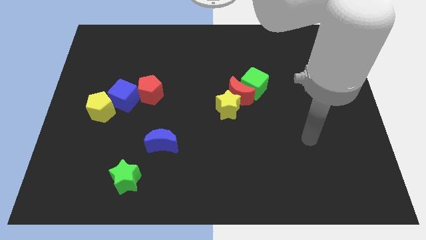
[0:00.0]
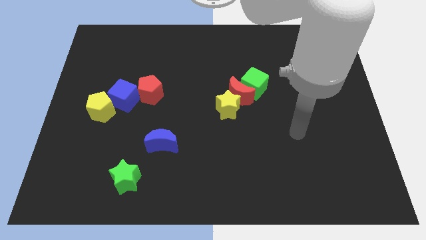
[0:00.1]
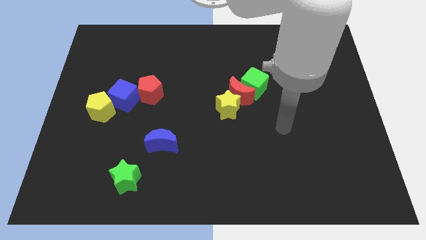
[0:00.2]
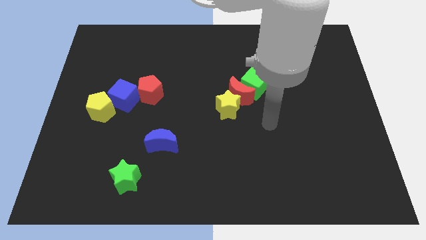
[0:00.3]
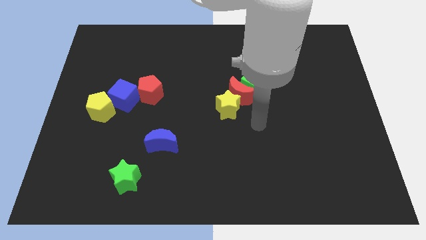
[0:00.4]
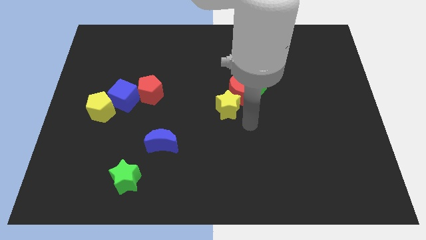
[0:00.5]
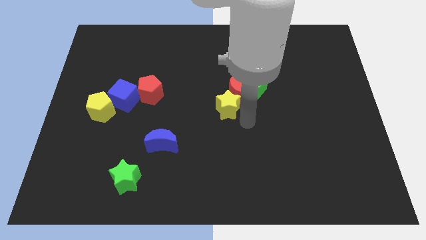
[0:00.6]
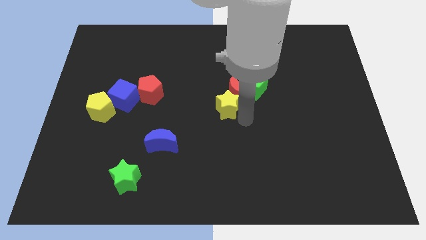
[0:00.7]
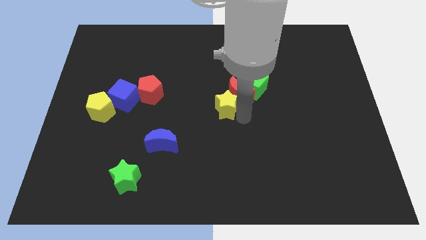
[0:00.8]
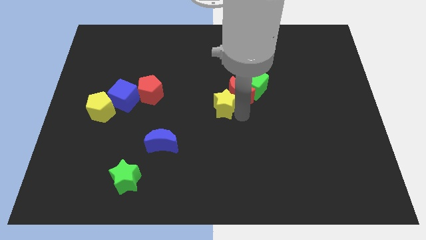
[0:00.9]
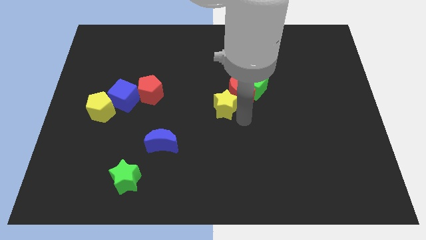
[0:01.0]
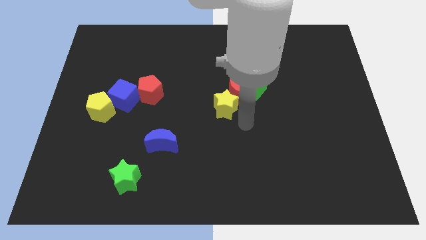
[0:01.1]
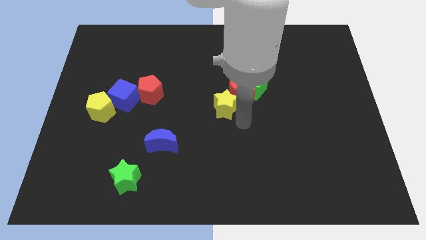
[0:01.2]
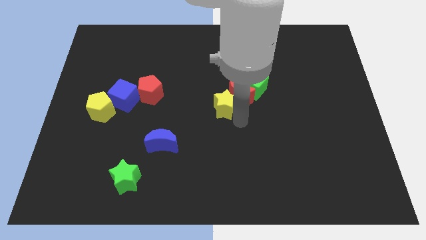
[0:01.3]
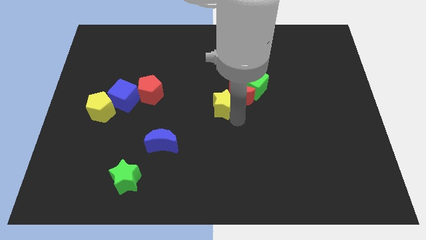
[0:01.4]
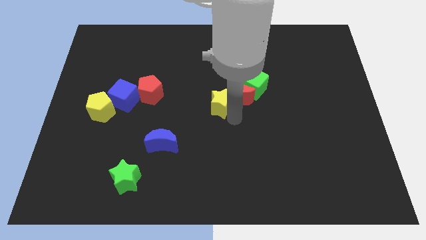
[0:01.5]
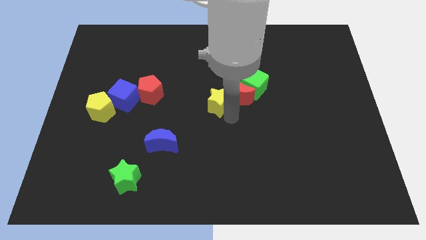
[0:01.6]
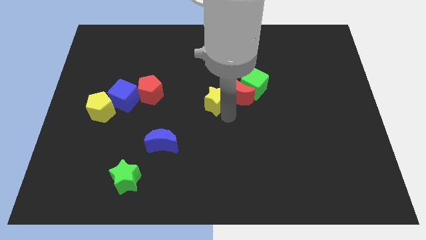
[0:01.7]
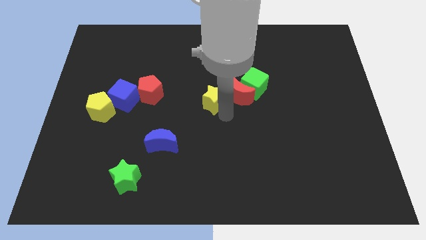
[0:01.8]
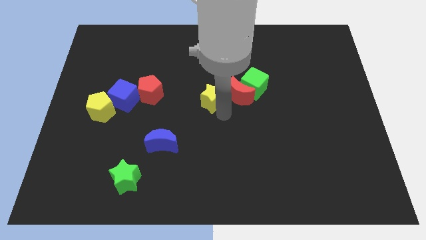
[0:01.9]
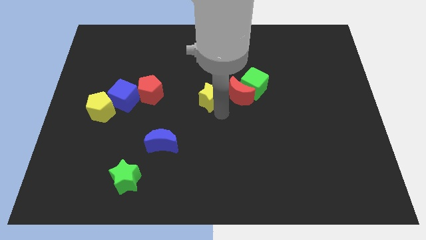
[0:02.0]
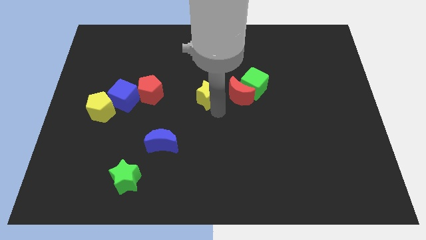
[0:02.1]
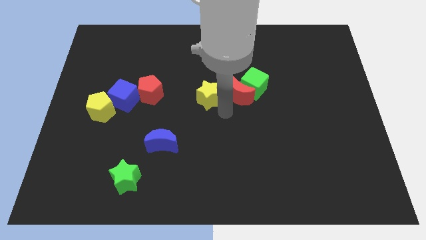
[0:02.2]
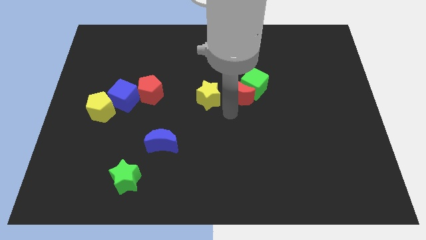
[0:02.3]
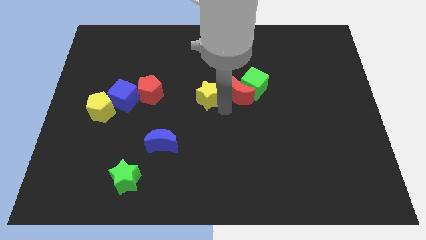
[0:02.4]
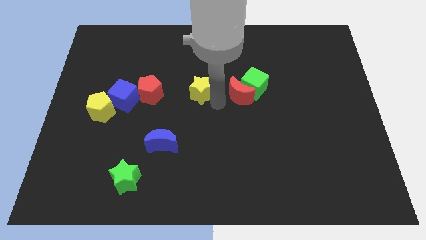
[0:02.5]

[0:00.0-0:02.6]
move the yellow star somewhat diagonally up and left

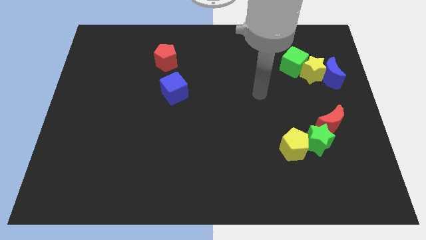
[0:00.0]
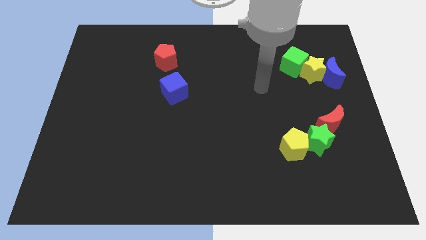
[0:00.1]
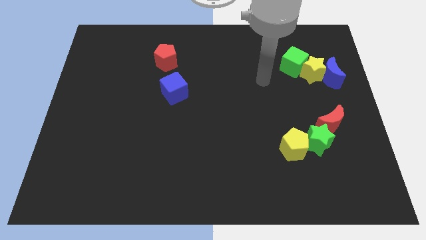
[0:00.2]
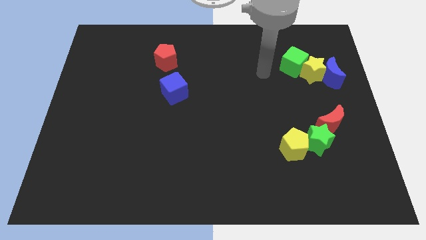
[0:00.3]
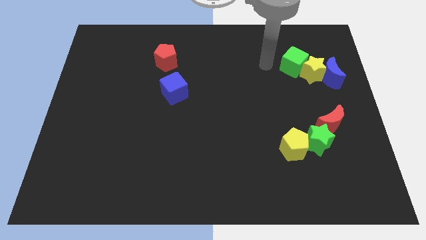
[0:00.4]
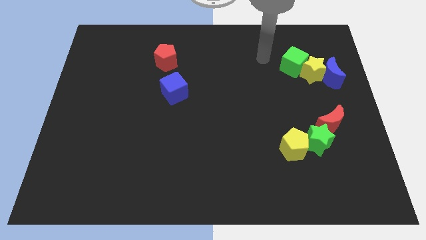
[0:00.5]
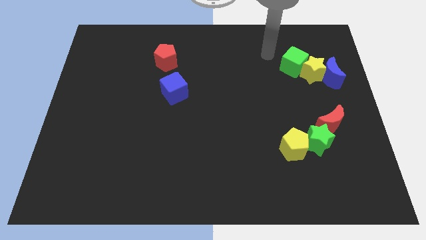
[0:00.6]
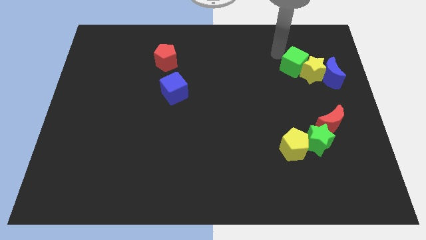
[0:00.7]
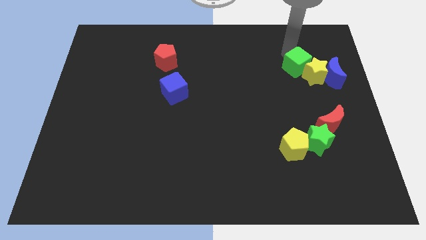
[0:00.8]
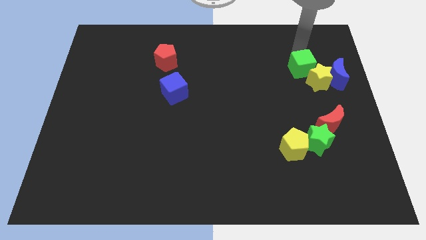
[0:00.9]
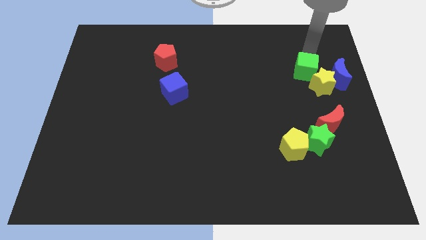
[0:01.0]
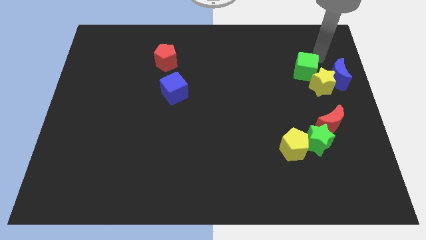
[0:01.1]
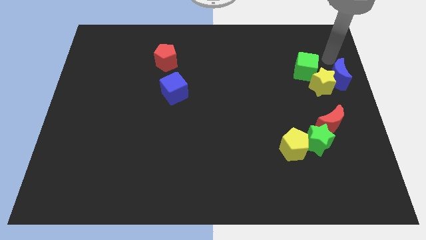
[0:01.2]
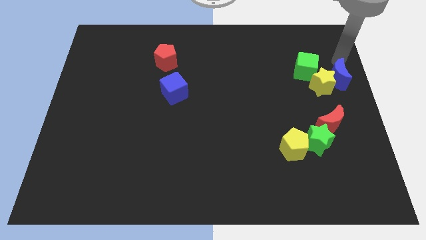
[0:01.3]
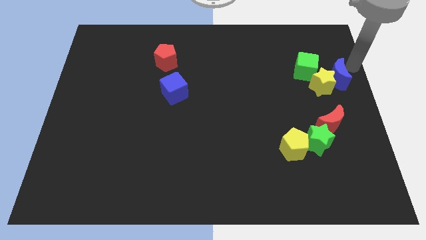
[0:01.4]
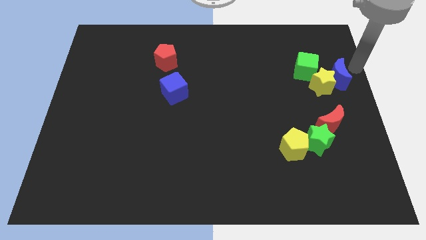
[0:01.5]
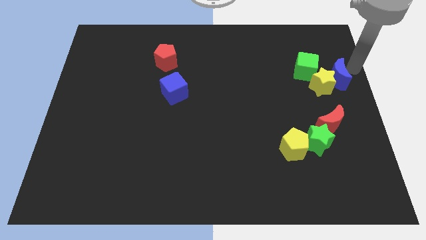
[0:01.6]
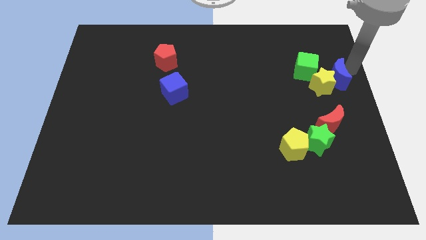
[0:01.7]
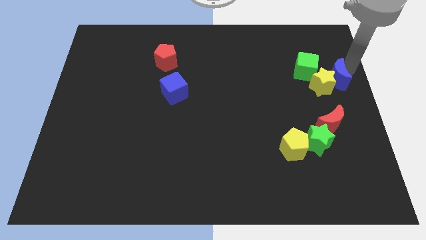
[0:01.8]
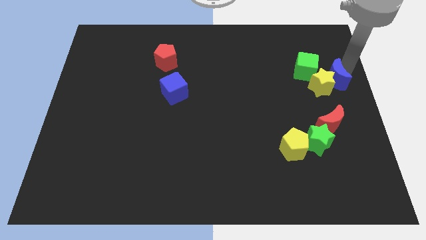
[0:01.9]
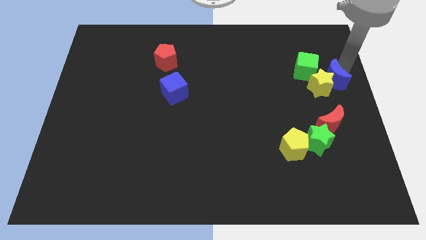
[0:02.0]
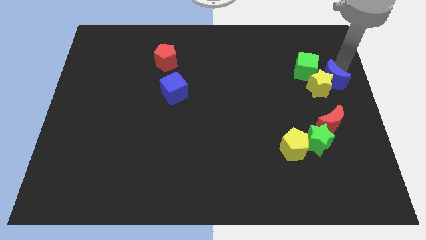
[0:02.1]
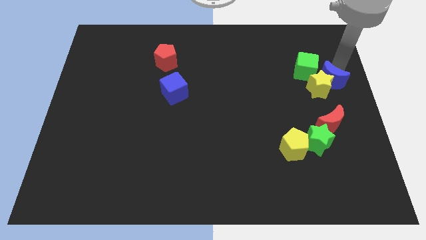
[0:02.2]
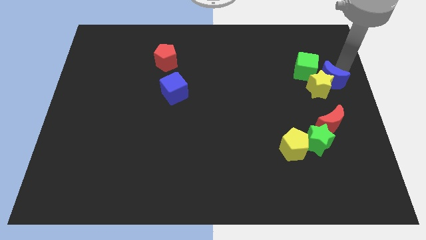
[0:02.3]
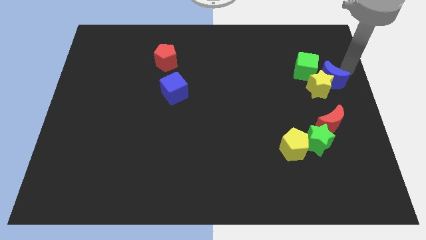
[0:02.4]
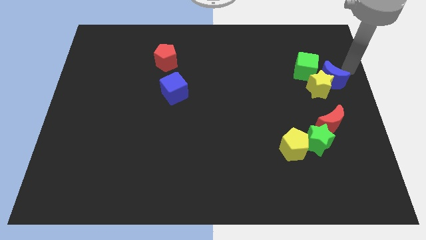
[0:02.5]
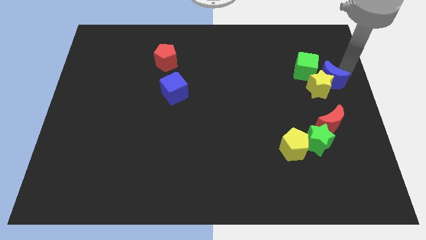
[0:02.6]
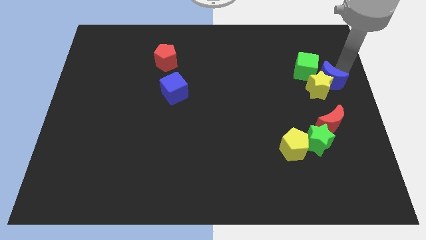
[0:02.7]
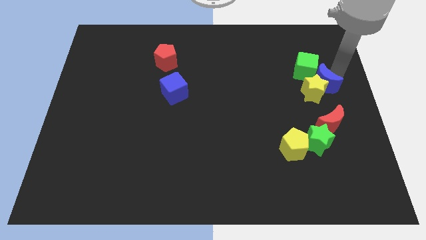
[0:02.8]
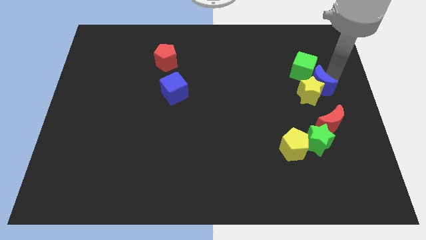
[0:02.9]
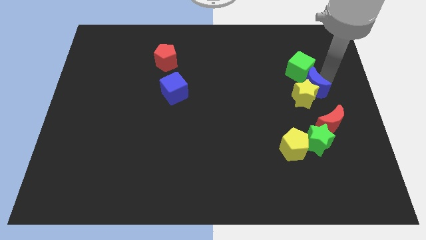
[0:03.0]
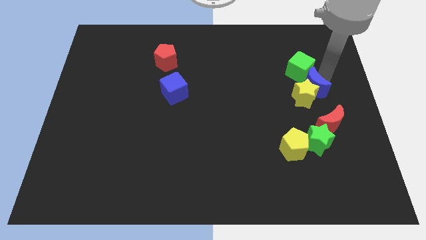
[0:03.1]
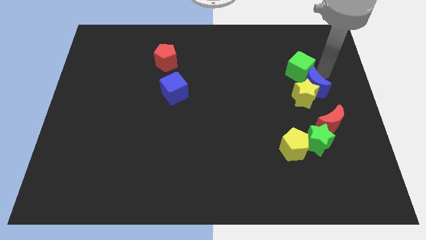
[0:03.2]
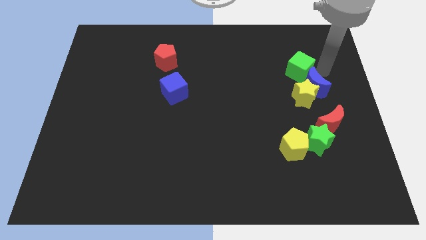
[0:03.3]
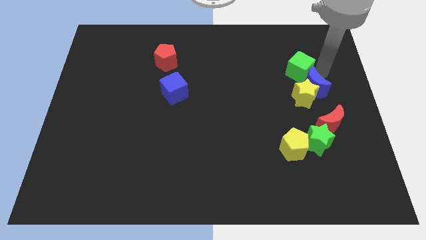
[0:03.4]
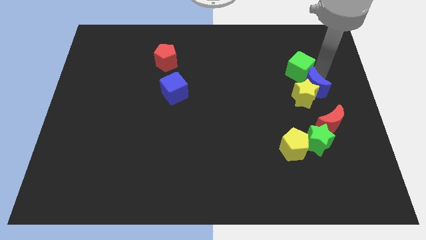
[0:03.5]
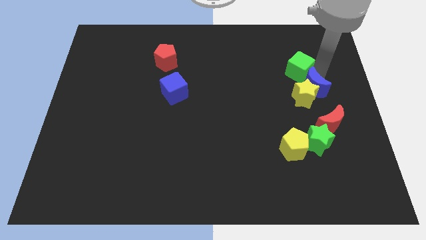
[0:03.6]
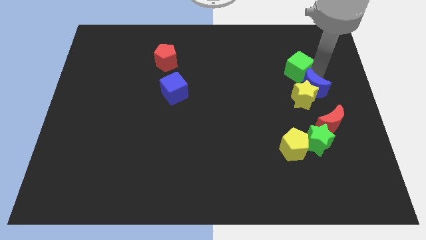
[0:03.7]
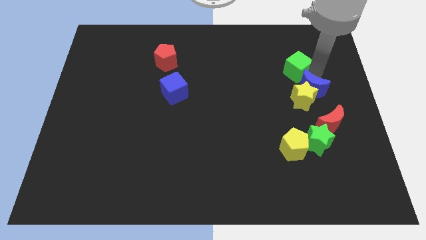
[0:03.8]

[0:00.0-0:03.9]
push the blue moon slightly diagonally downwards and to the left

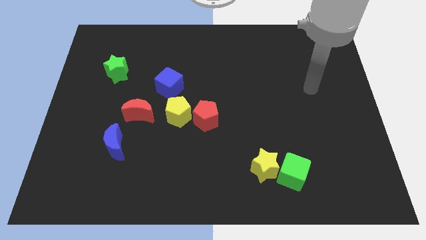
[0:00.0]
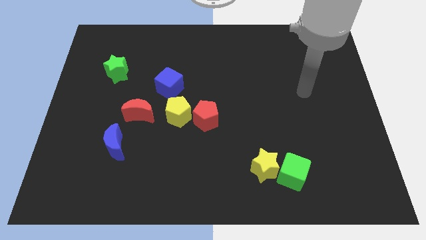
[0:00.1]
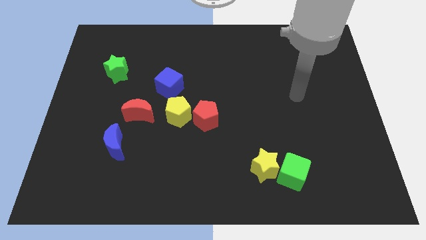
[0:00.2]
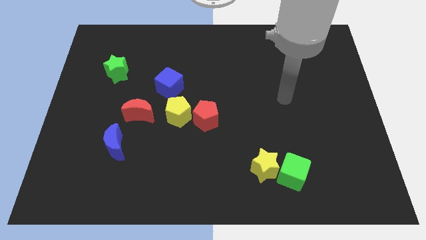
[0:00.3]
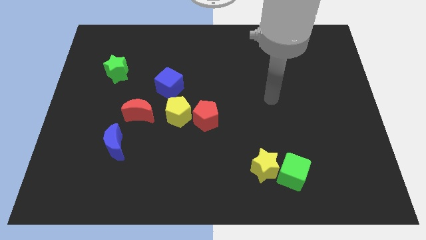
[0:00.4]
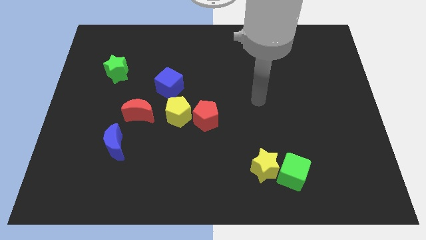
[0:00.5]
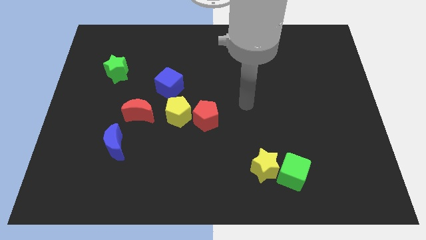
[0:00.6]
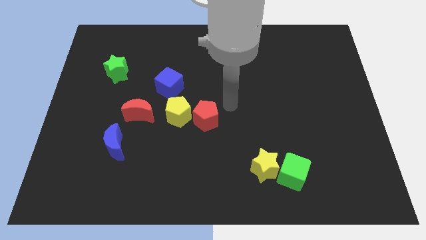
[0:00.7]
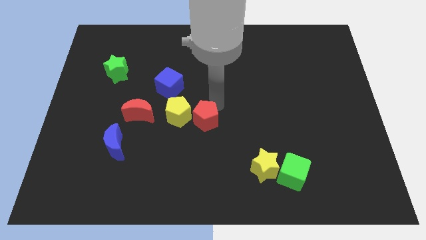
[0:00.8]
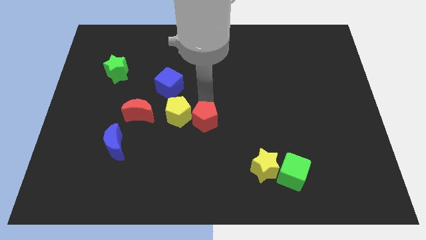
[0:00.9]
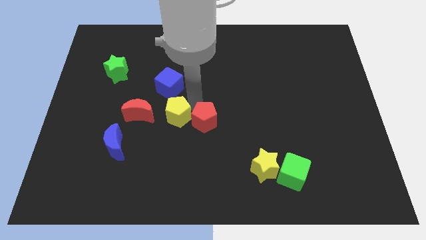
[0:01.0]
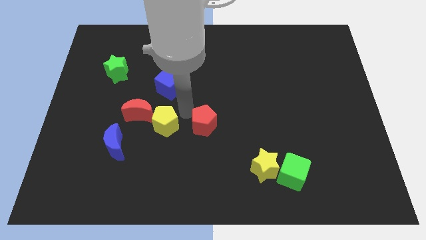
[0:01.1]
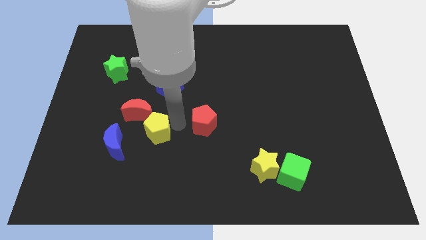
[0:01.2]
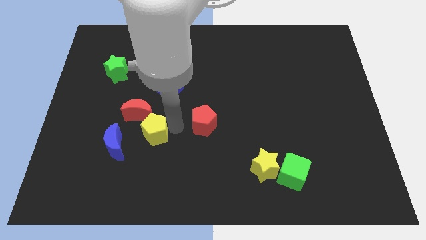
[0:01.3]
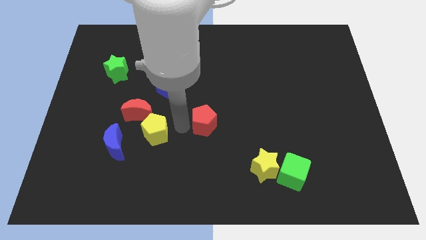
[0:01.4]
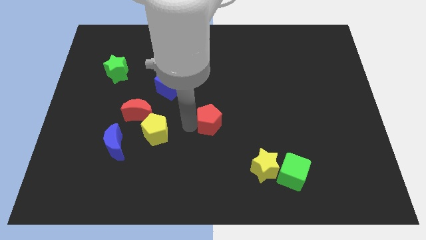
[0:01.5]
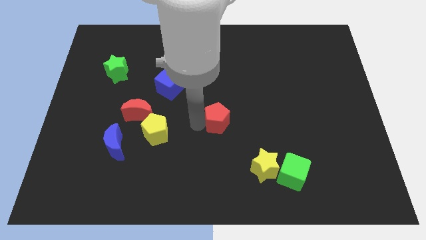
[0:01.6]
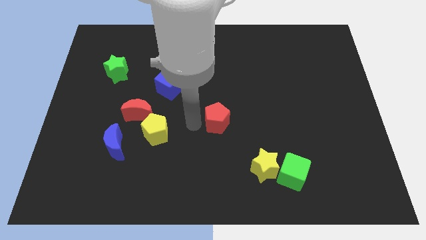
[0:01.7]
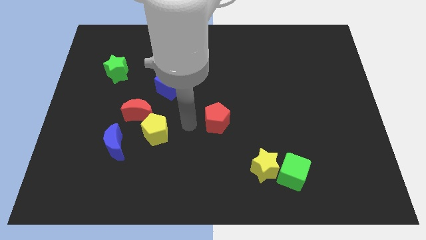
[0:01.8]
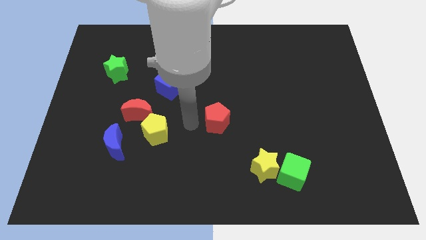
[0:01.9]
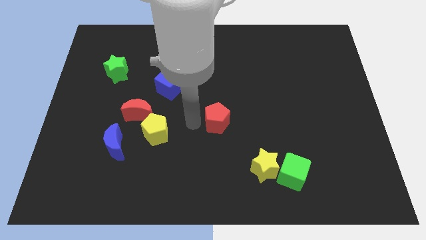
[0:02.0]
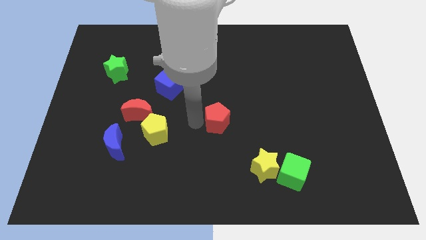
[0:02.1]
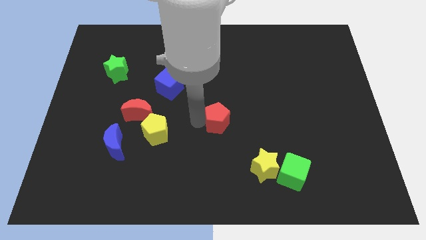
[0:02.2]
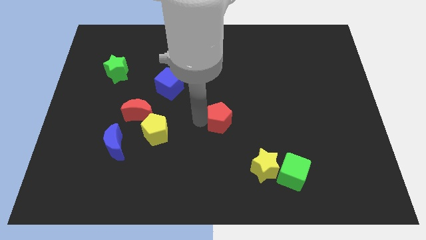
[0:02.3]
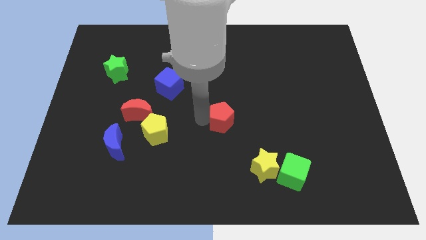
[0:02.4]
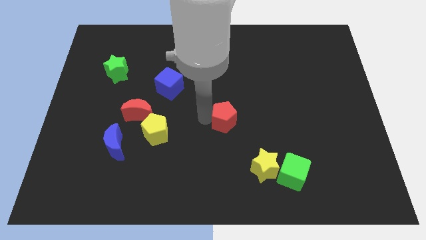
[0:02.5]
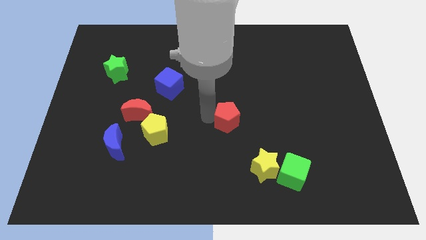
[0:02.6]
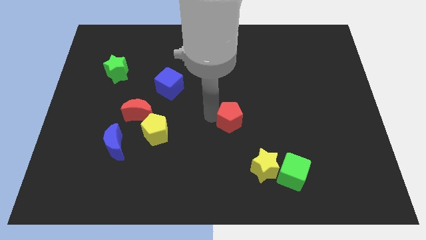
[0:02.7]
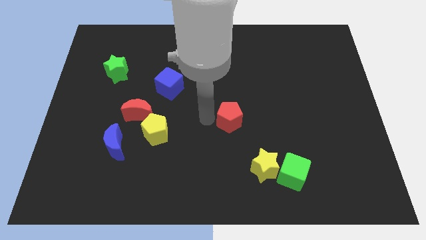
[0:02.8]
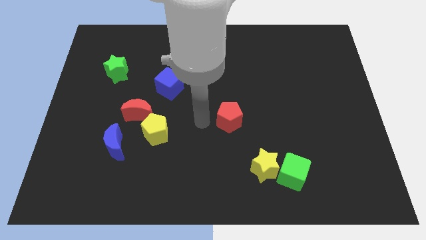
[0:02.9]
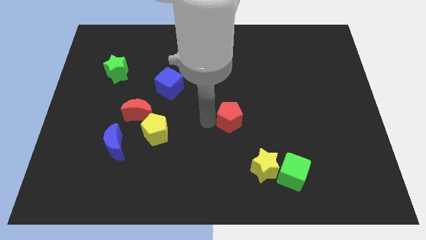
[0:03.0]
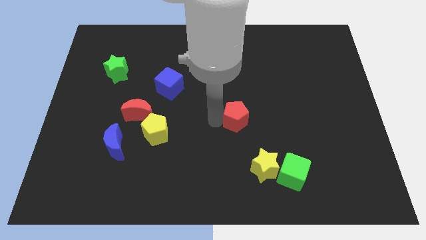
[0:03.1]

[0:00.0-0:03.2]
slide the red pentagon a little bit to the right
